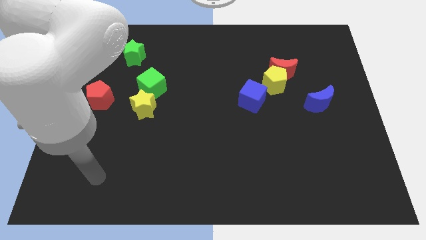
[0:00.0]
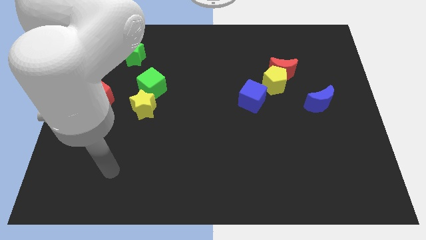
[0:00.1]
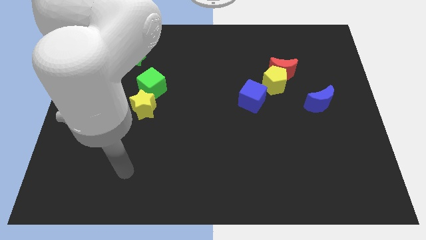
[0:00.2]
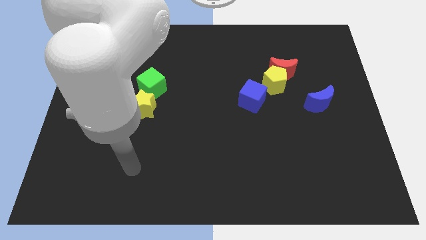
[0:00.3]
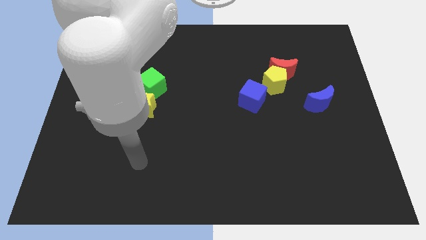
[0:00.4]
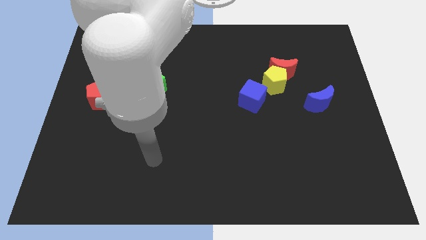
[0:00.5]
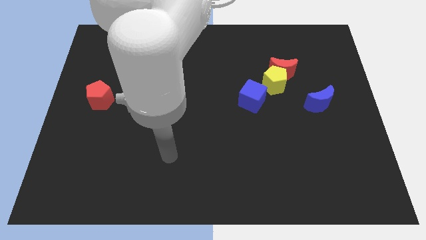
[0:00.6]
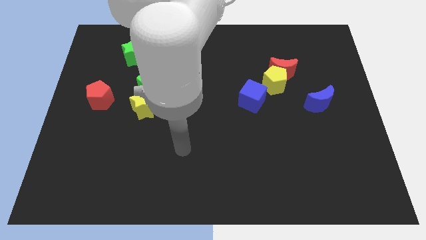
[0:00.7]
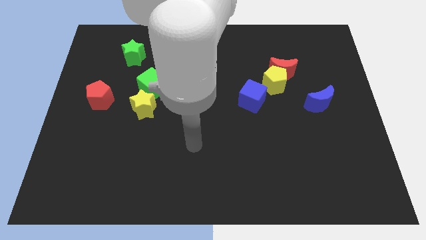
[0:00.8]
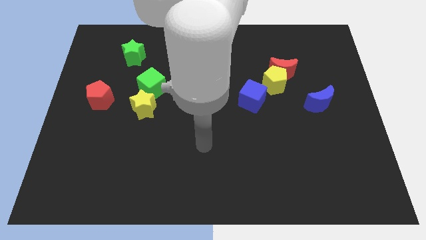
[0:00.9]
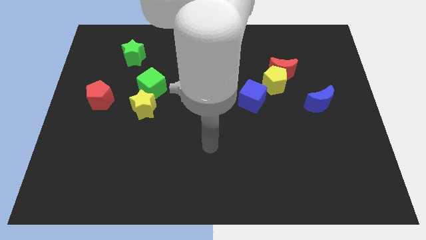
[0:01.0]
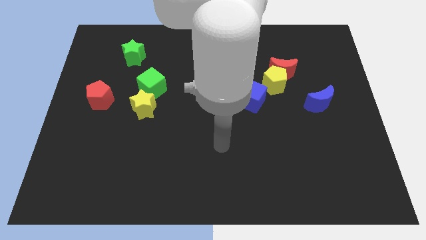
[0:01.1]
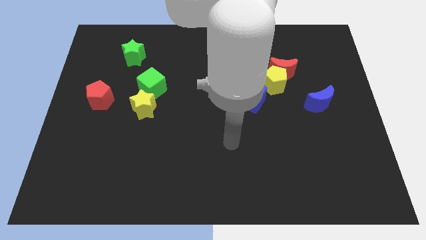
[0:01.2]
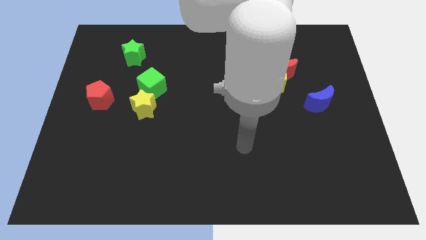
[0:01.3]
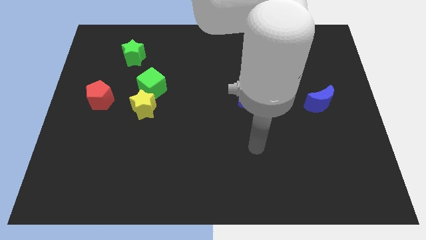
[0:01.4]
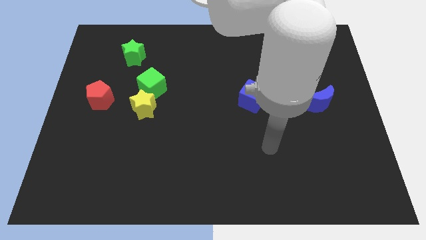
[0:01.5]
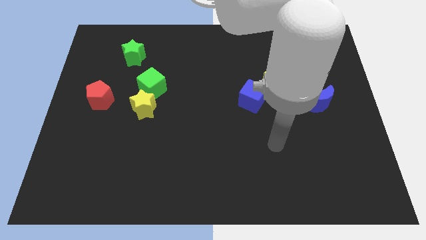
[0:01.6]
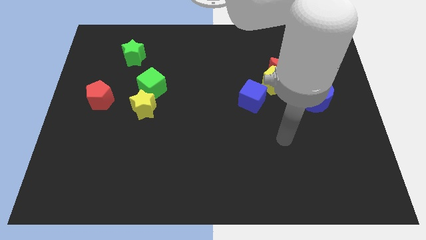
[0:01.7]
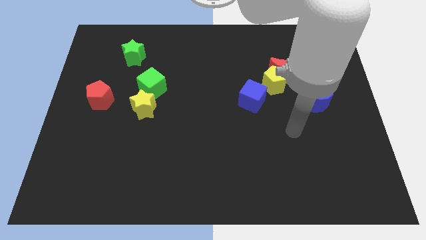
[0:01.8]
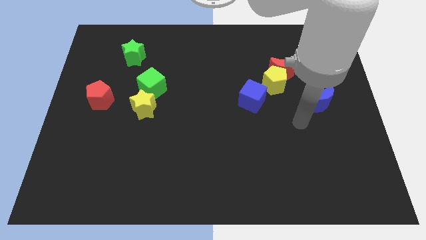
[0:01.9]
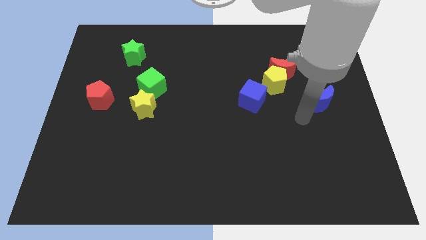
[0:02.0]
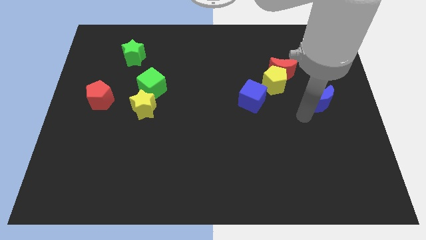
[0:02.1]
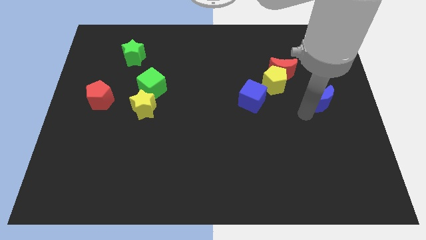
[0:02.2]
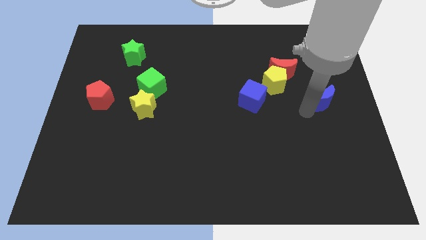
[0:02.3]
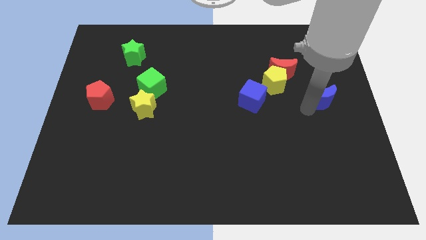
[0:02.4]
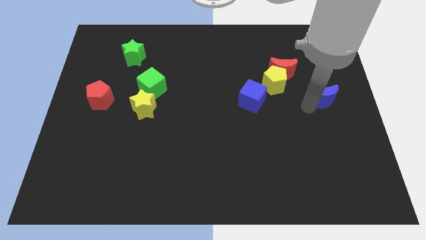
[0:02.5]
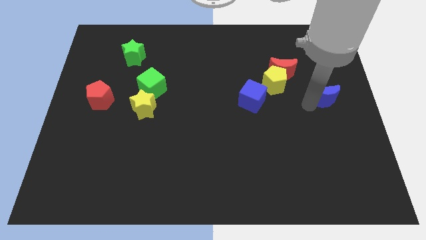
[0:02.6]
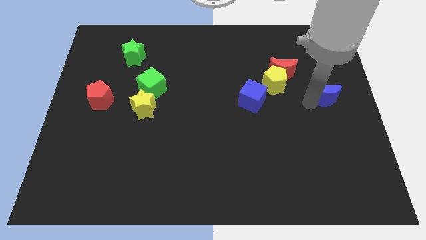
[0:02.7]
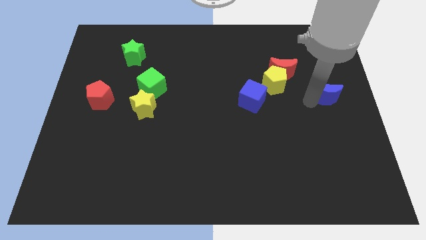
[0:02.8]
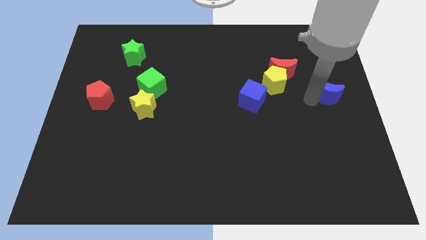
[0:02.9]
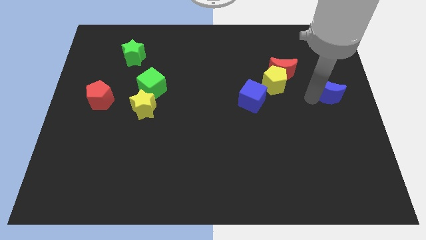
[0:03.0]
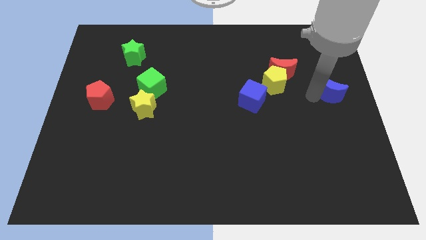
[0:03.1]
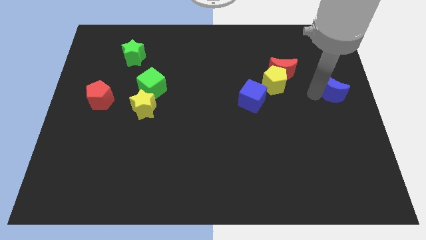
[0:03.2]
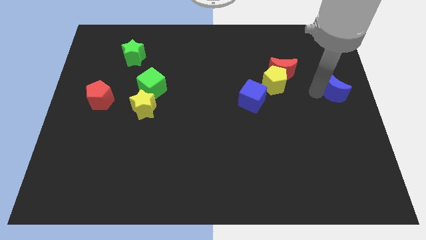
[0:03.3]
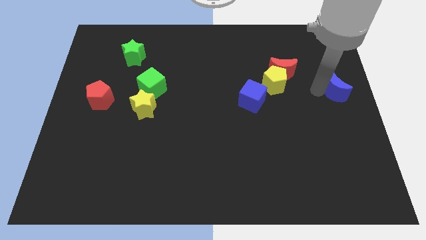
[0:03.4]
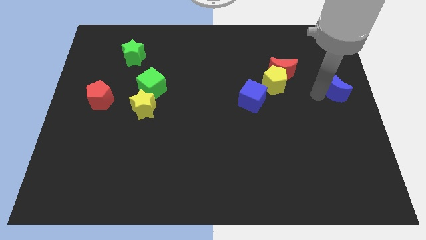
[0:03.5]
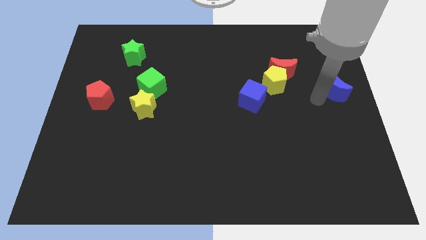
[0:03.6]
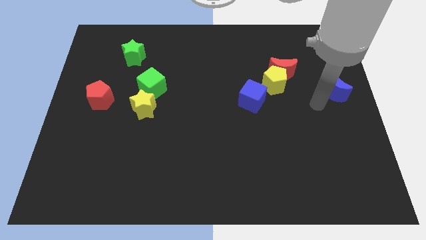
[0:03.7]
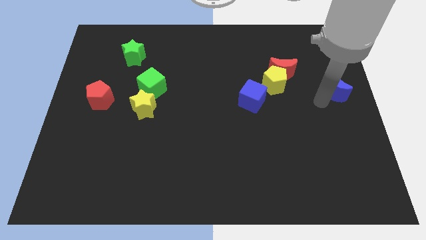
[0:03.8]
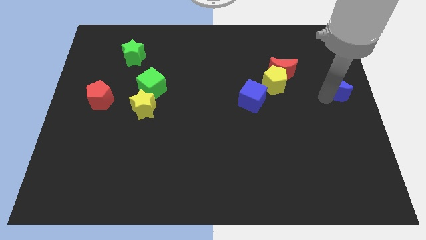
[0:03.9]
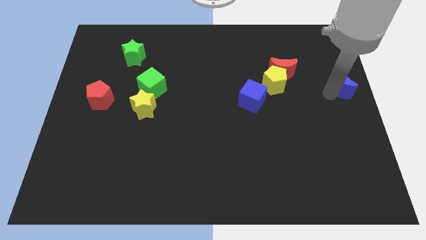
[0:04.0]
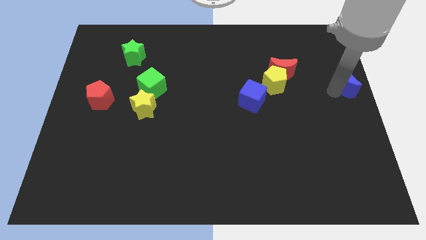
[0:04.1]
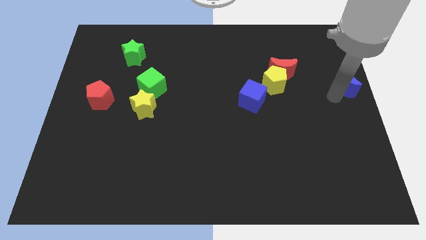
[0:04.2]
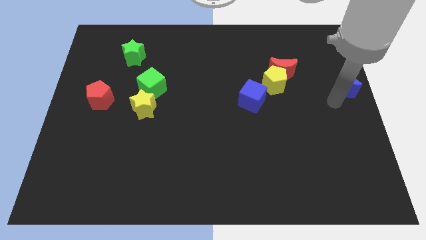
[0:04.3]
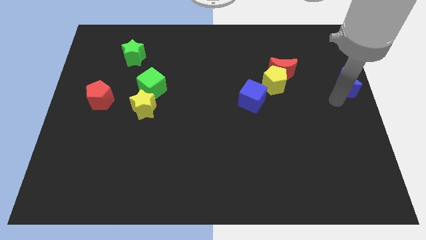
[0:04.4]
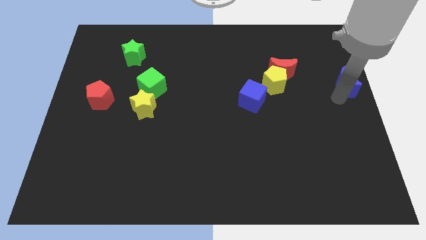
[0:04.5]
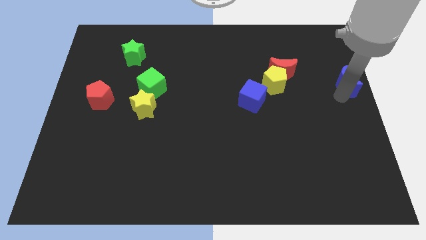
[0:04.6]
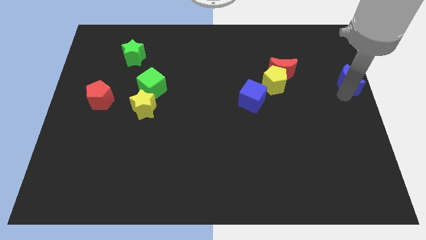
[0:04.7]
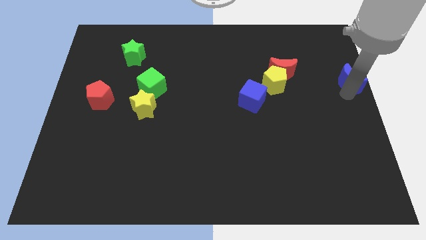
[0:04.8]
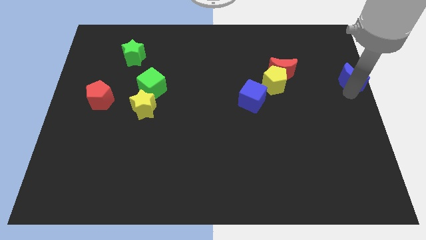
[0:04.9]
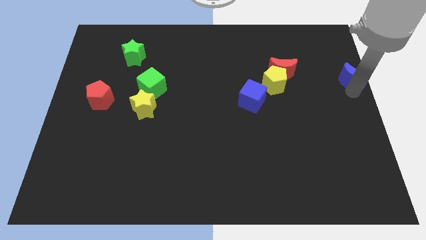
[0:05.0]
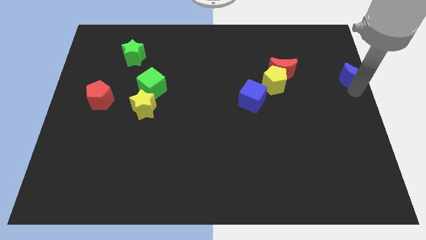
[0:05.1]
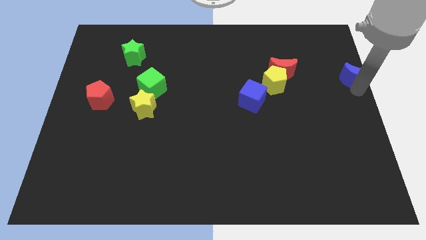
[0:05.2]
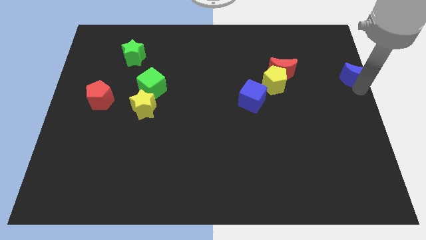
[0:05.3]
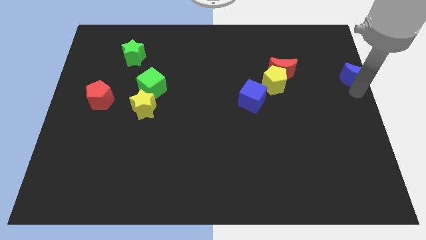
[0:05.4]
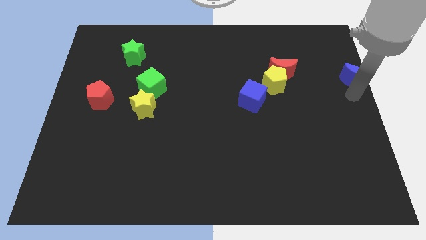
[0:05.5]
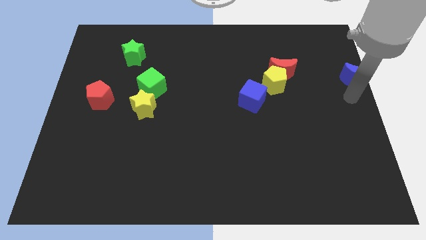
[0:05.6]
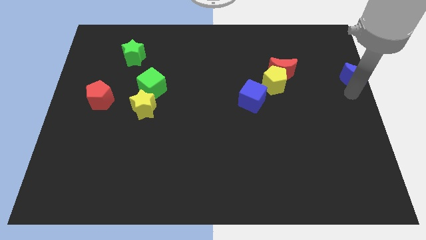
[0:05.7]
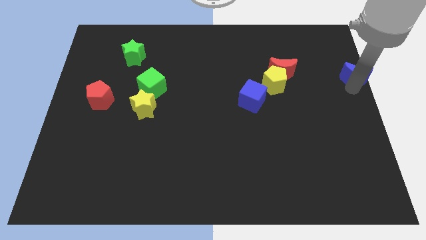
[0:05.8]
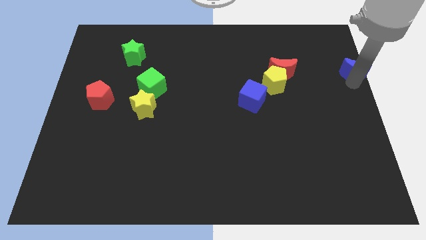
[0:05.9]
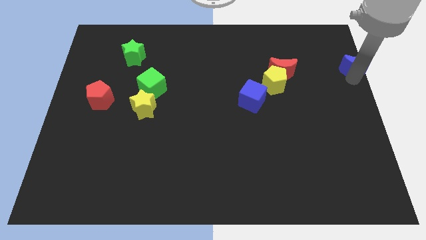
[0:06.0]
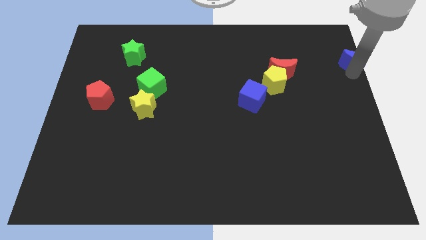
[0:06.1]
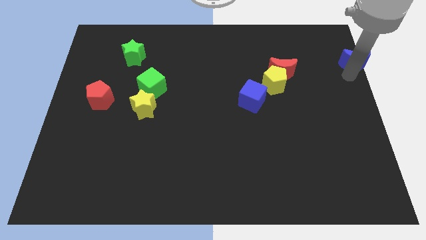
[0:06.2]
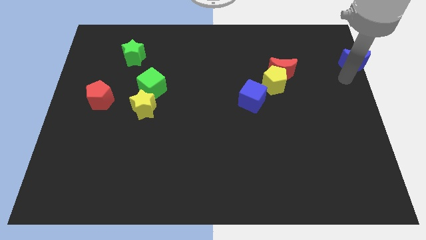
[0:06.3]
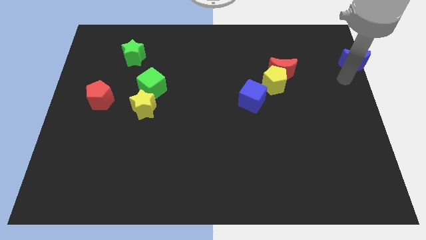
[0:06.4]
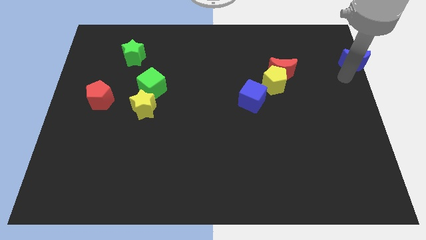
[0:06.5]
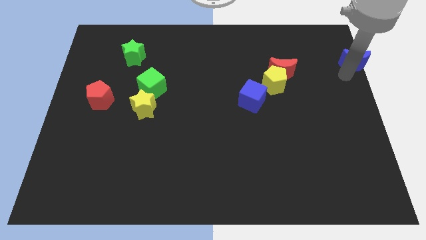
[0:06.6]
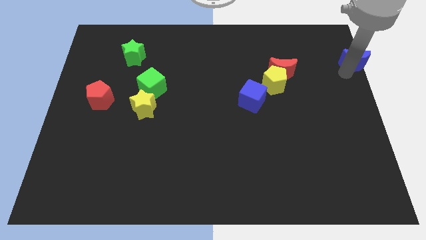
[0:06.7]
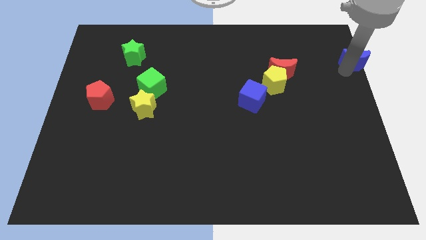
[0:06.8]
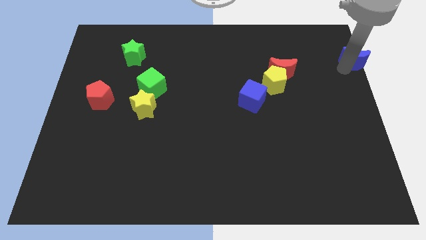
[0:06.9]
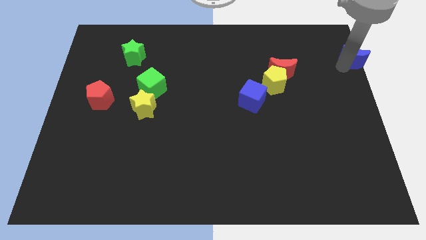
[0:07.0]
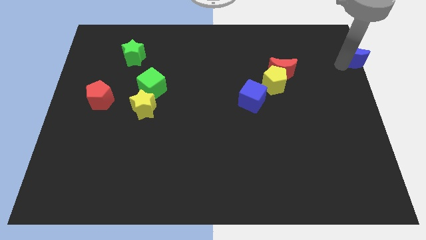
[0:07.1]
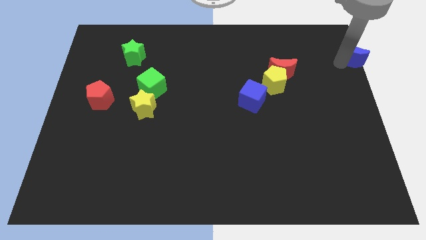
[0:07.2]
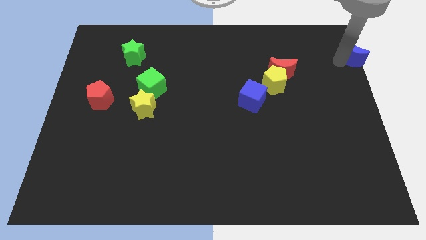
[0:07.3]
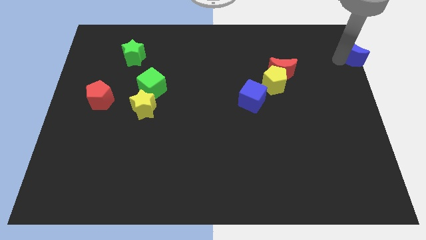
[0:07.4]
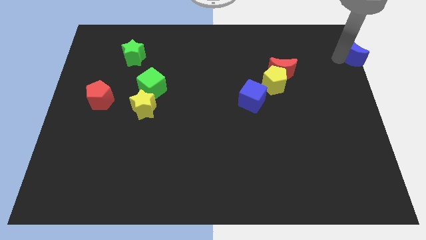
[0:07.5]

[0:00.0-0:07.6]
slide the blue moon to the upper right corner

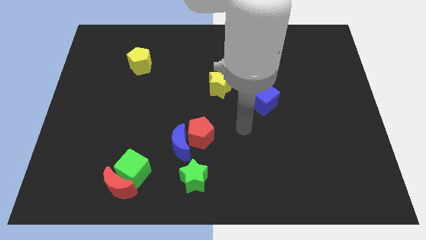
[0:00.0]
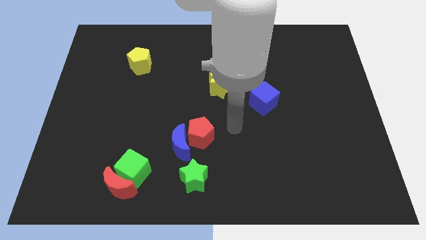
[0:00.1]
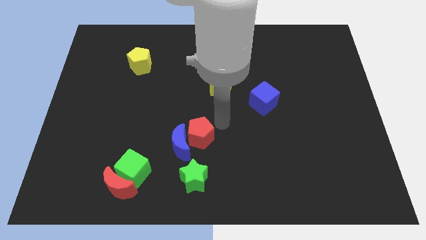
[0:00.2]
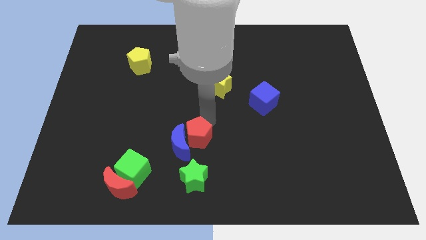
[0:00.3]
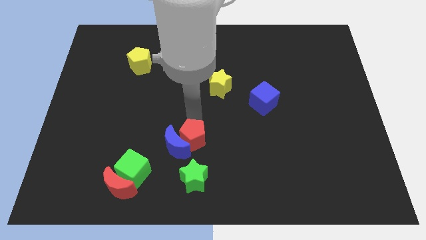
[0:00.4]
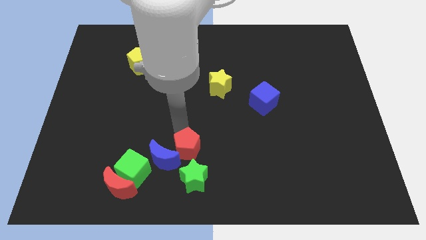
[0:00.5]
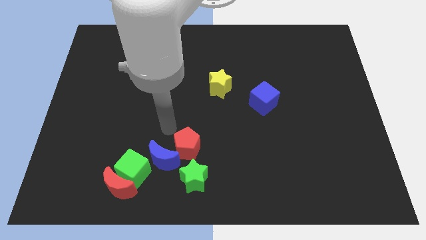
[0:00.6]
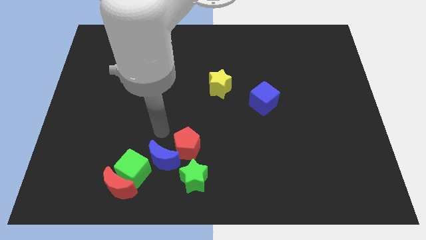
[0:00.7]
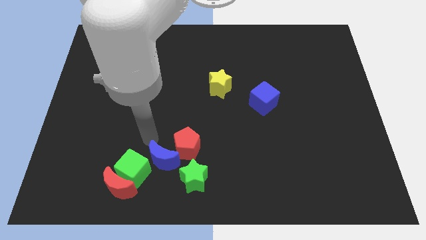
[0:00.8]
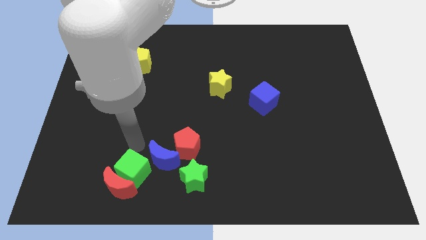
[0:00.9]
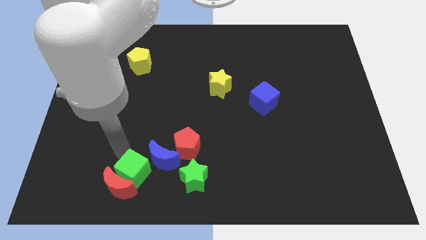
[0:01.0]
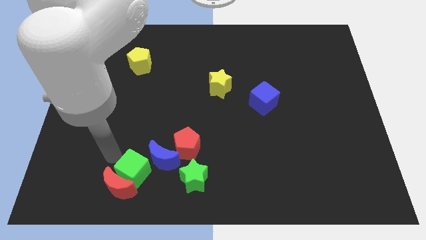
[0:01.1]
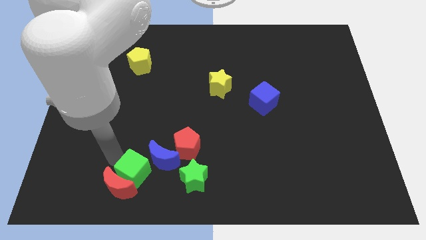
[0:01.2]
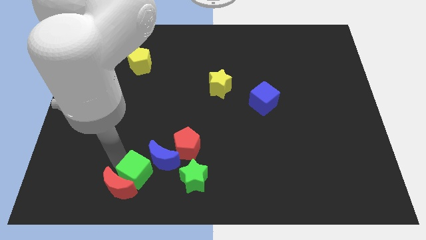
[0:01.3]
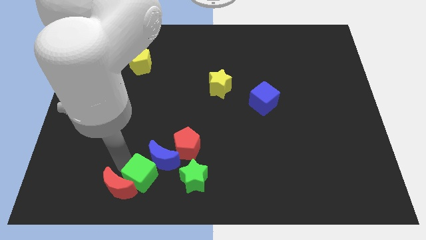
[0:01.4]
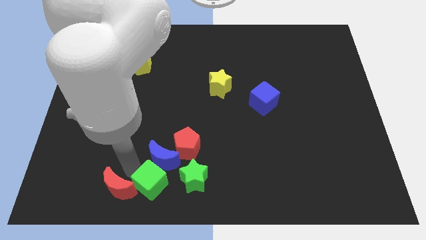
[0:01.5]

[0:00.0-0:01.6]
move the green cube to the bottom side
